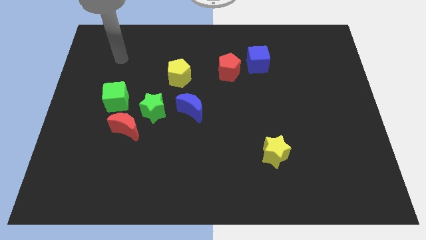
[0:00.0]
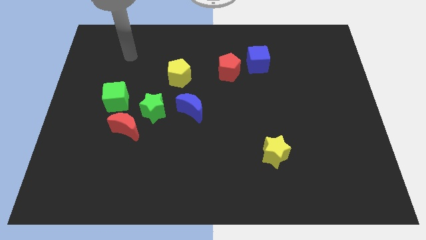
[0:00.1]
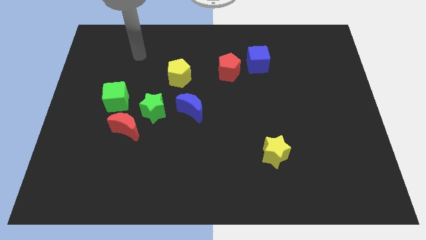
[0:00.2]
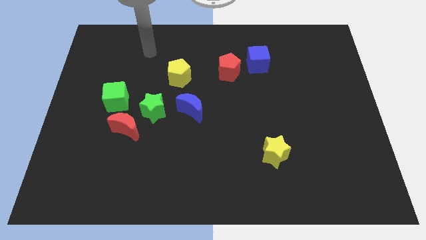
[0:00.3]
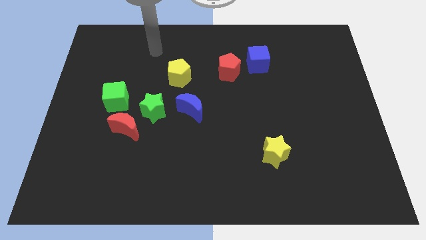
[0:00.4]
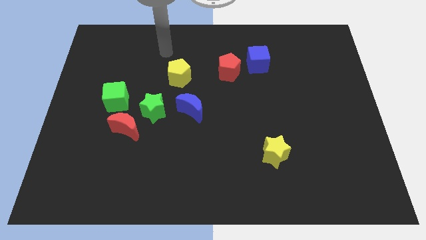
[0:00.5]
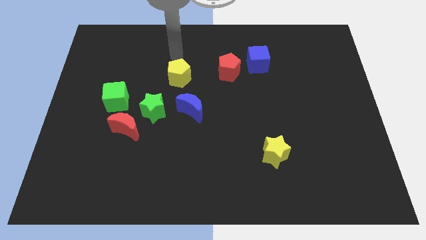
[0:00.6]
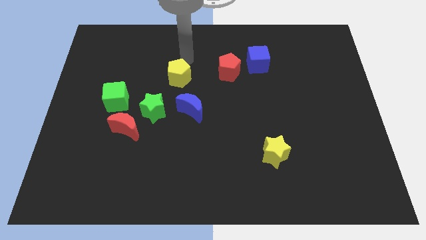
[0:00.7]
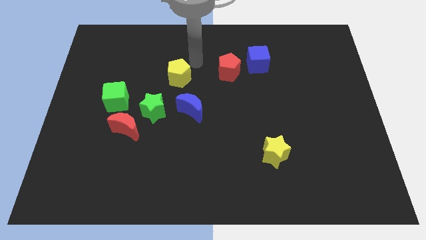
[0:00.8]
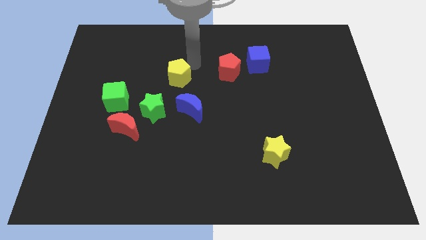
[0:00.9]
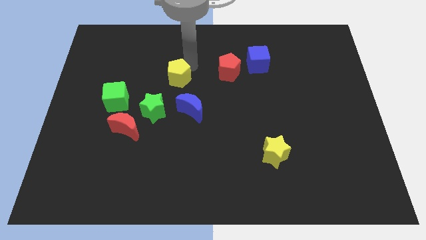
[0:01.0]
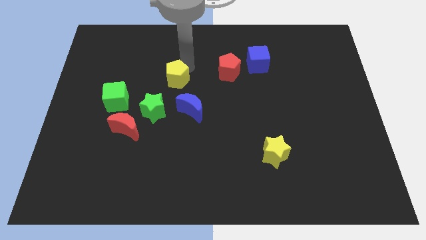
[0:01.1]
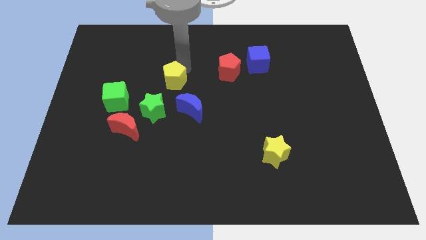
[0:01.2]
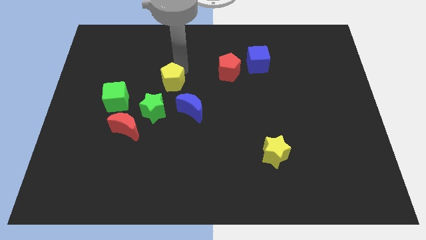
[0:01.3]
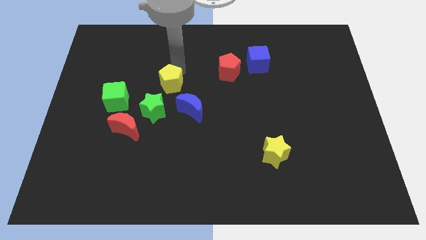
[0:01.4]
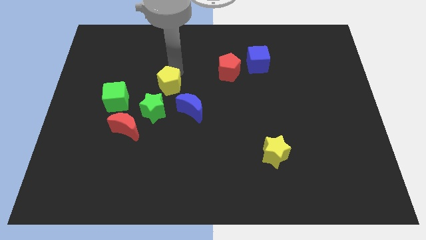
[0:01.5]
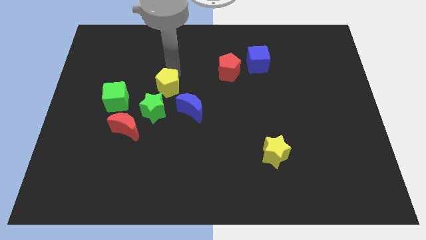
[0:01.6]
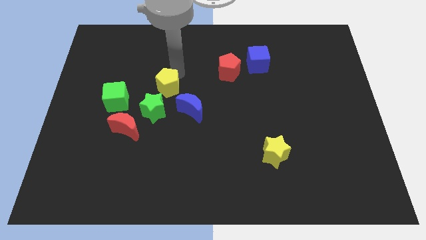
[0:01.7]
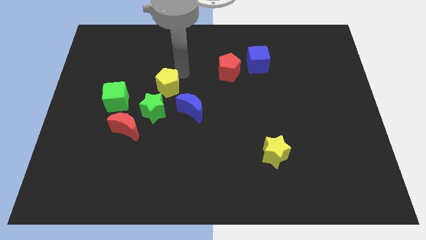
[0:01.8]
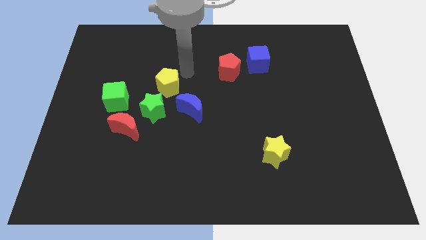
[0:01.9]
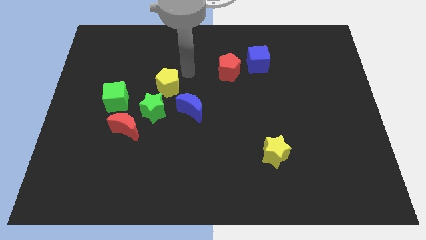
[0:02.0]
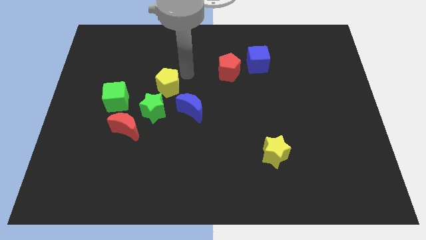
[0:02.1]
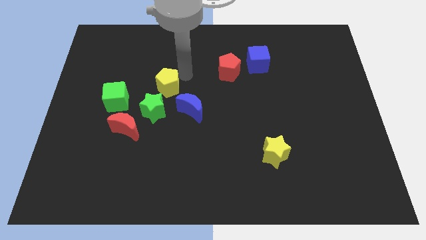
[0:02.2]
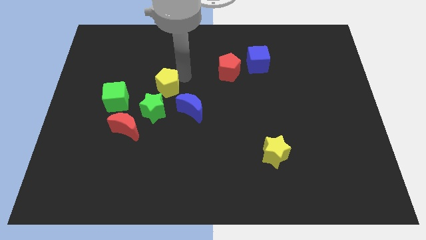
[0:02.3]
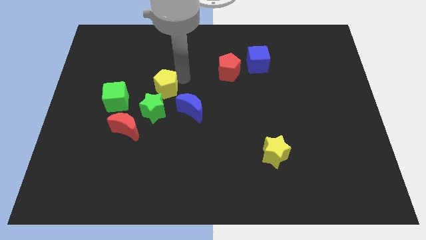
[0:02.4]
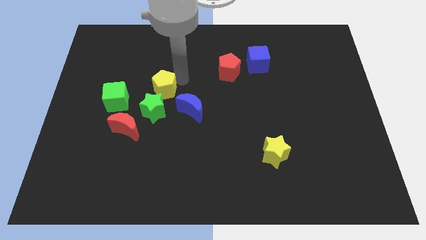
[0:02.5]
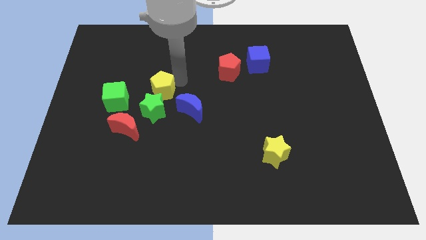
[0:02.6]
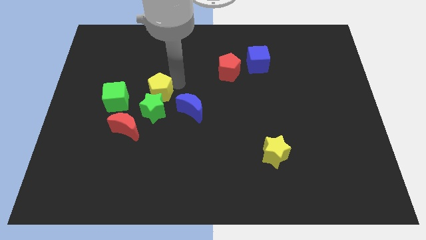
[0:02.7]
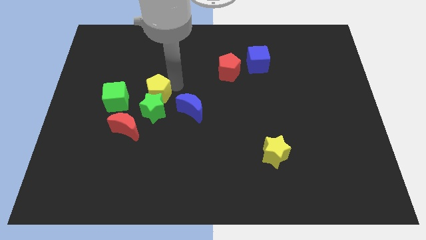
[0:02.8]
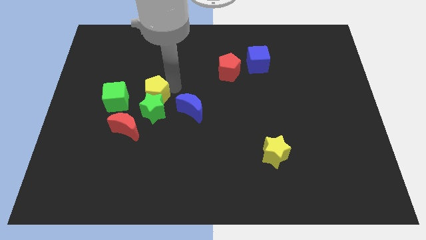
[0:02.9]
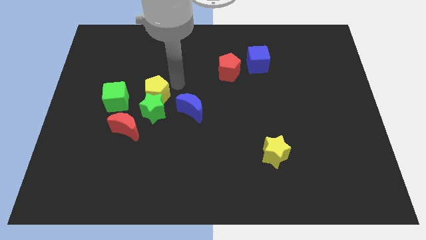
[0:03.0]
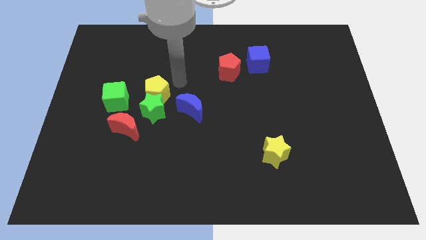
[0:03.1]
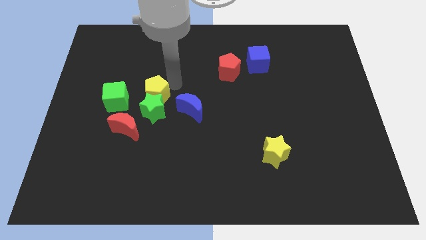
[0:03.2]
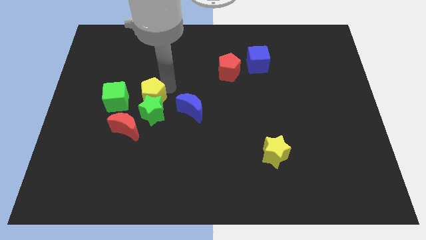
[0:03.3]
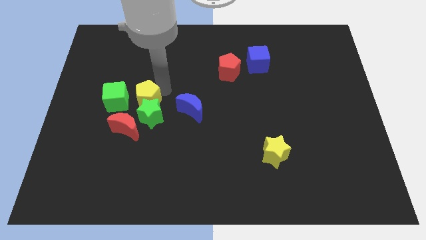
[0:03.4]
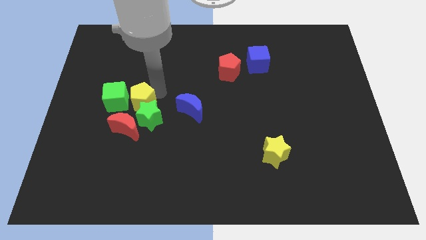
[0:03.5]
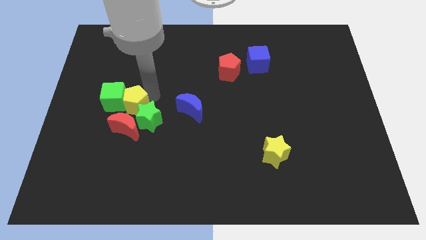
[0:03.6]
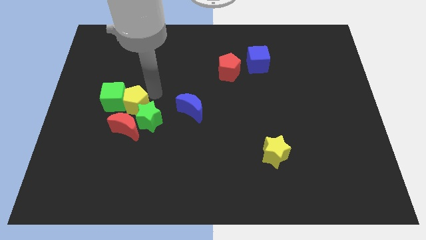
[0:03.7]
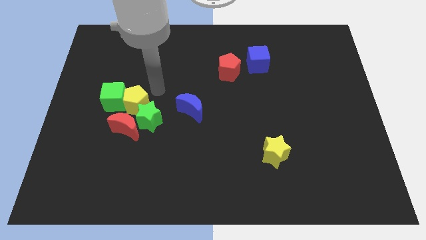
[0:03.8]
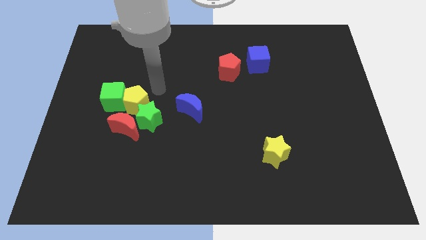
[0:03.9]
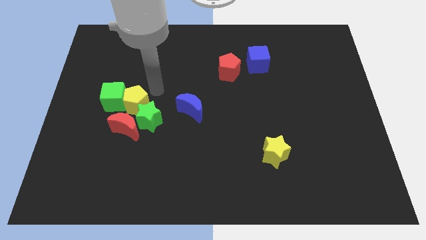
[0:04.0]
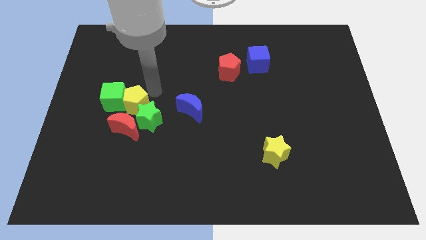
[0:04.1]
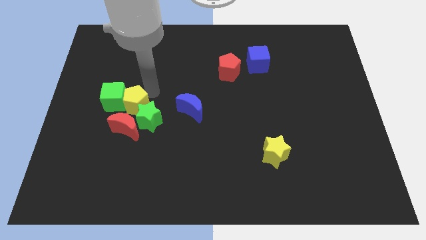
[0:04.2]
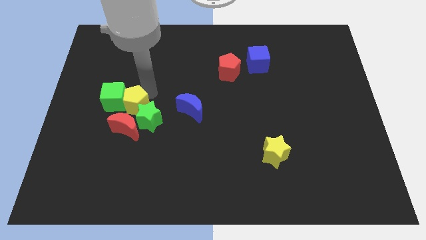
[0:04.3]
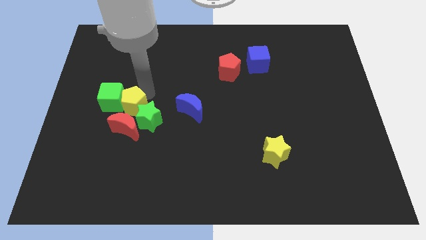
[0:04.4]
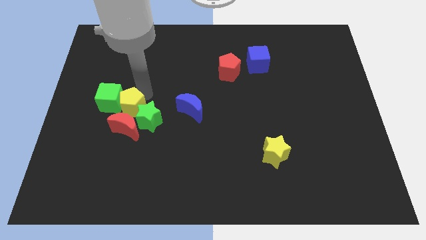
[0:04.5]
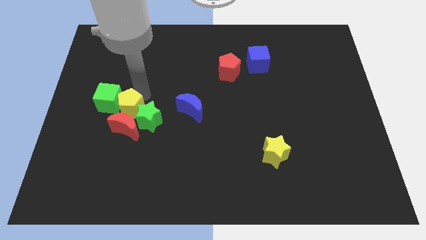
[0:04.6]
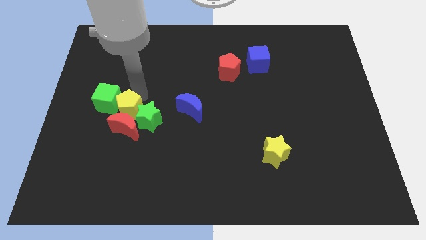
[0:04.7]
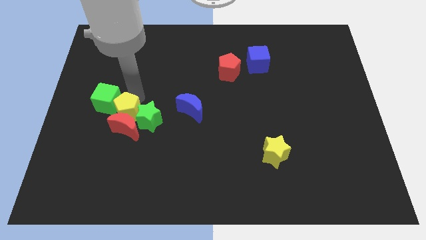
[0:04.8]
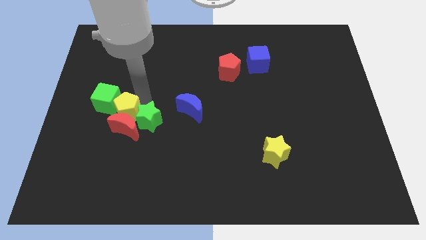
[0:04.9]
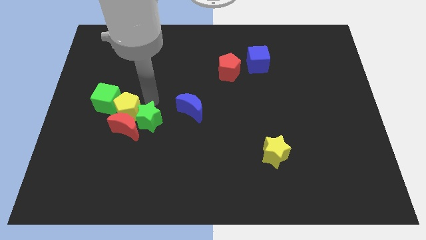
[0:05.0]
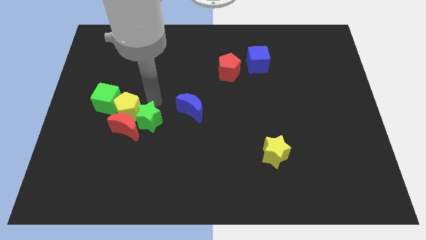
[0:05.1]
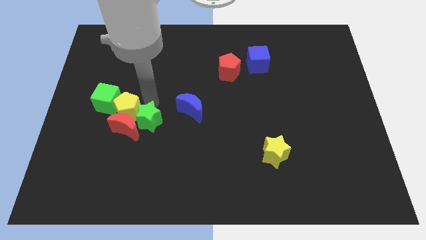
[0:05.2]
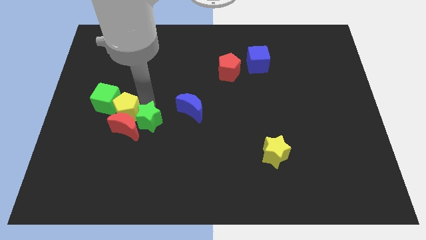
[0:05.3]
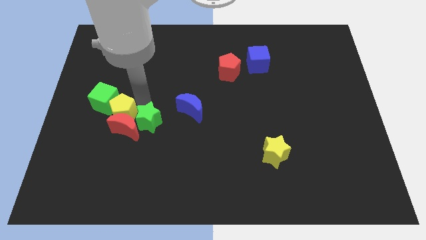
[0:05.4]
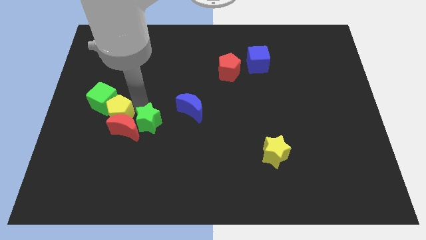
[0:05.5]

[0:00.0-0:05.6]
slide the yellow pentagon below the green cube

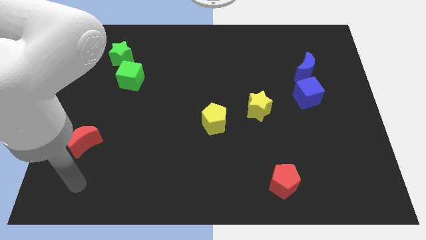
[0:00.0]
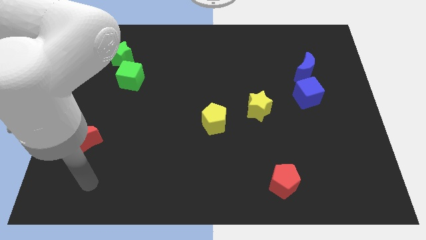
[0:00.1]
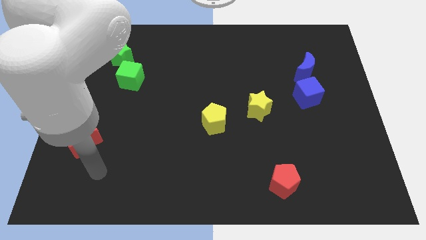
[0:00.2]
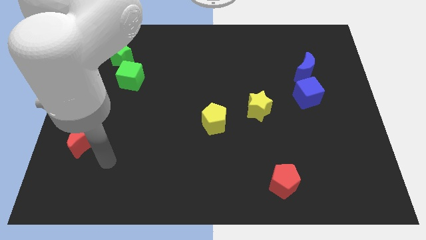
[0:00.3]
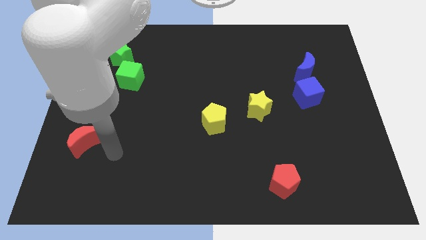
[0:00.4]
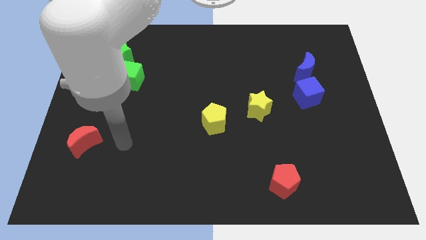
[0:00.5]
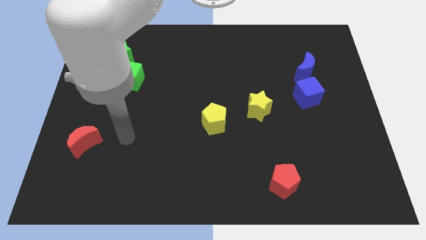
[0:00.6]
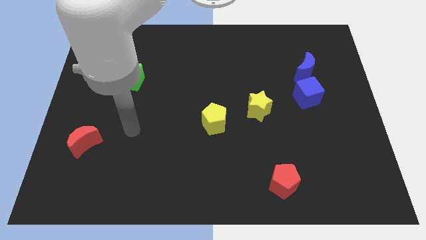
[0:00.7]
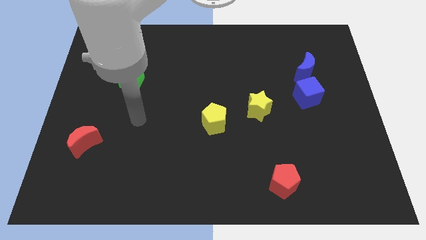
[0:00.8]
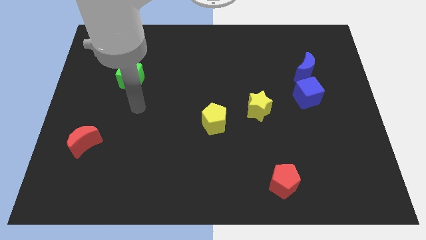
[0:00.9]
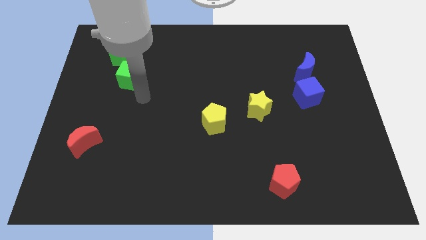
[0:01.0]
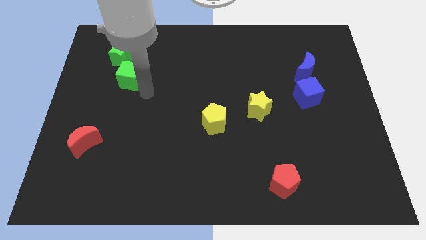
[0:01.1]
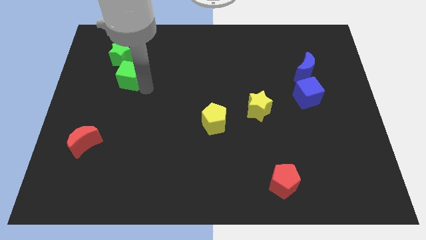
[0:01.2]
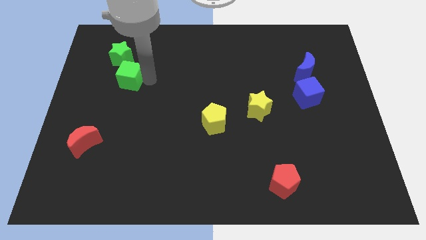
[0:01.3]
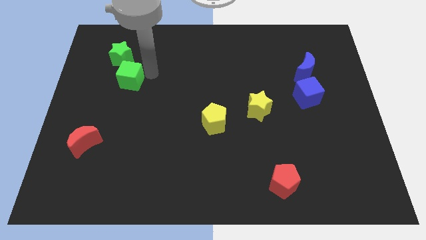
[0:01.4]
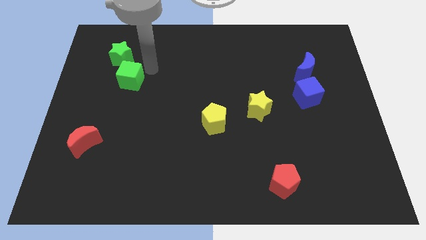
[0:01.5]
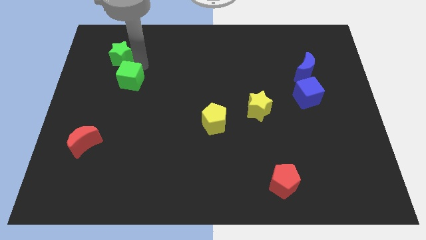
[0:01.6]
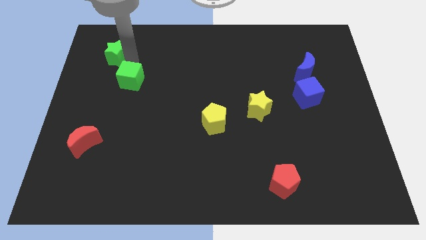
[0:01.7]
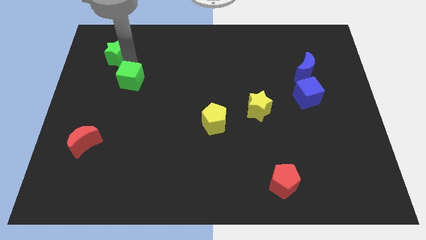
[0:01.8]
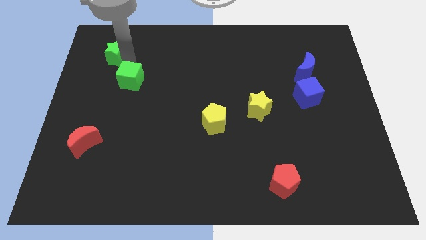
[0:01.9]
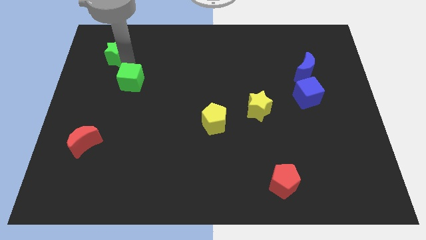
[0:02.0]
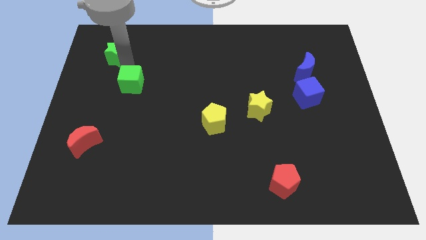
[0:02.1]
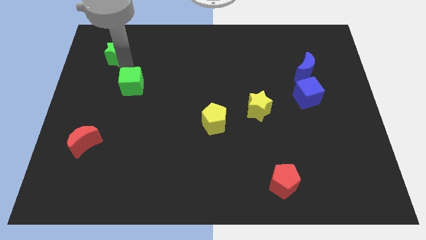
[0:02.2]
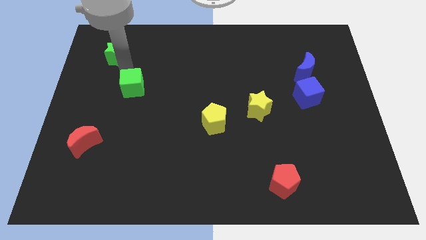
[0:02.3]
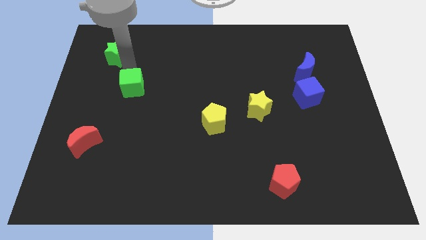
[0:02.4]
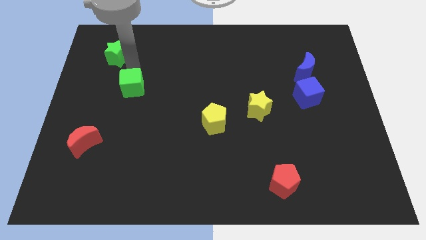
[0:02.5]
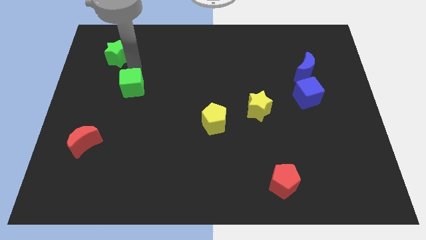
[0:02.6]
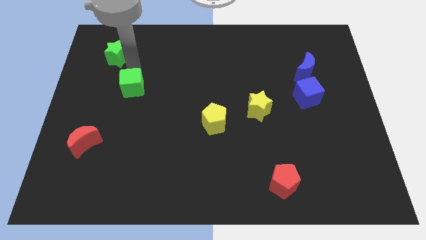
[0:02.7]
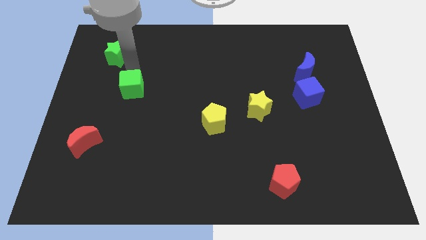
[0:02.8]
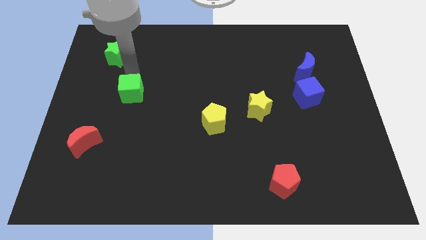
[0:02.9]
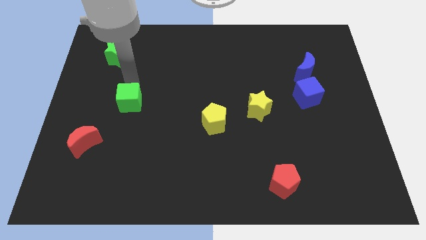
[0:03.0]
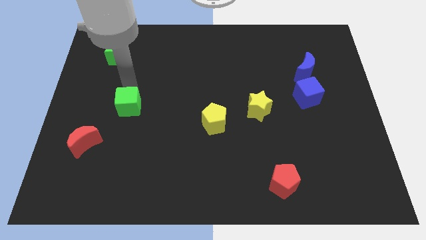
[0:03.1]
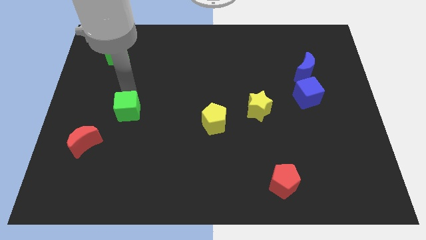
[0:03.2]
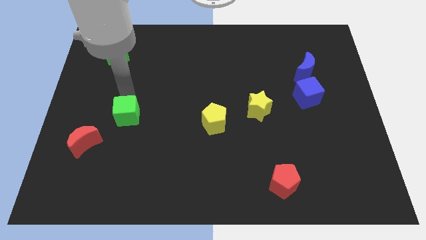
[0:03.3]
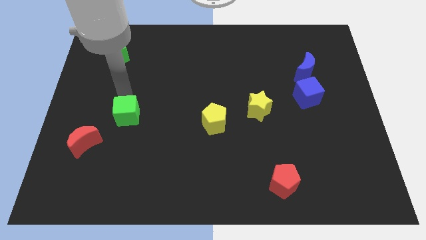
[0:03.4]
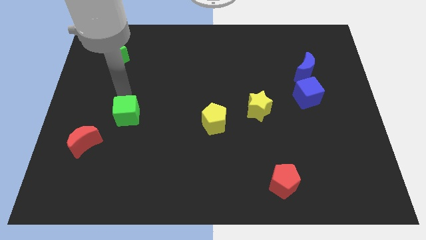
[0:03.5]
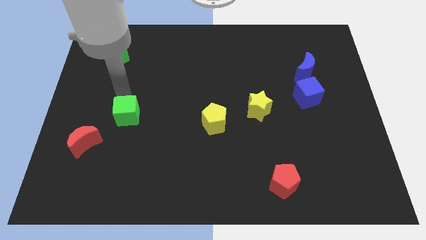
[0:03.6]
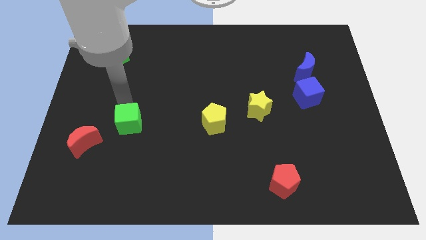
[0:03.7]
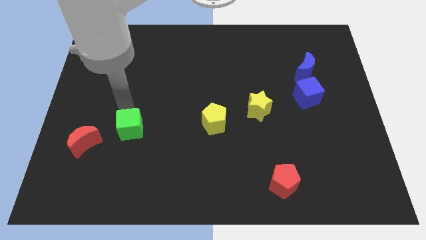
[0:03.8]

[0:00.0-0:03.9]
move the green cube to the right side of the red moon
